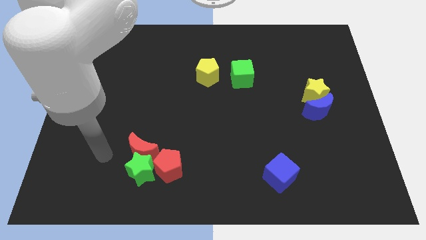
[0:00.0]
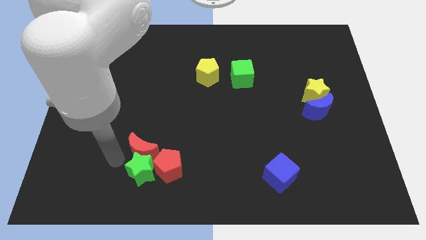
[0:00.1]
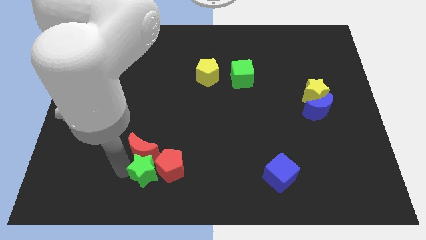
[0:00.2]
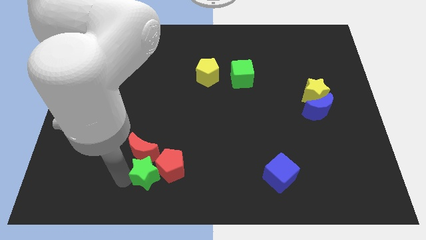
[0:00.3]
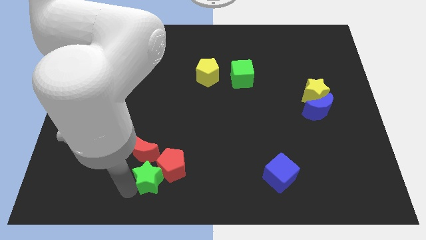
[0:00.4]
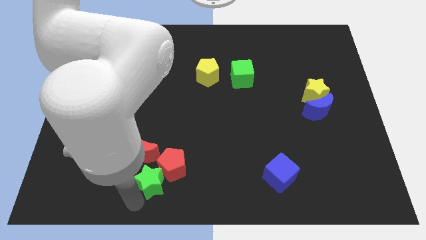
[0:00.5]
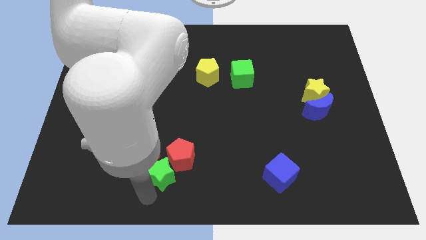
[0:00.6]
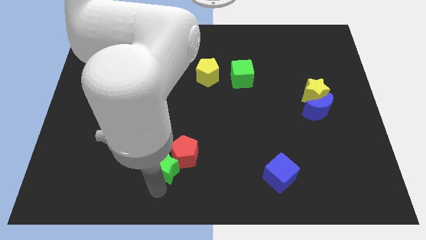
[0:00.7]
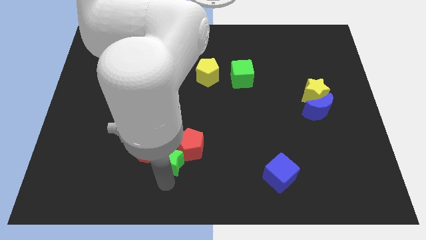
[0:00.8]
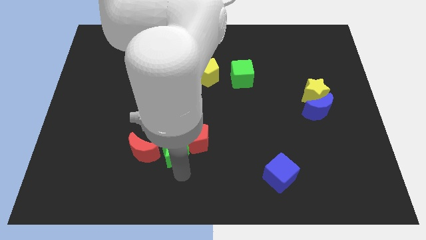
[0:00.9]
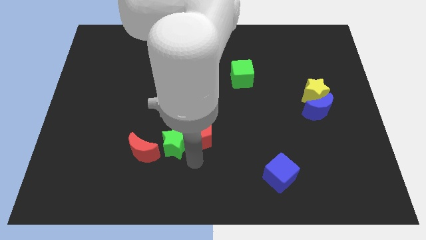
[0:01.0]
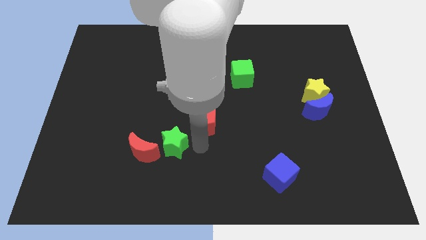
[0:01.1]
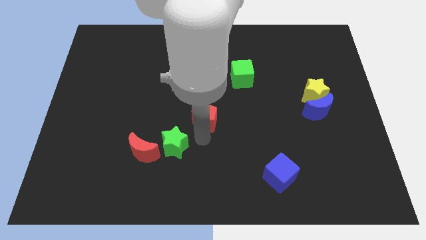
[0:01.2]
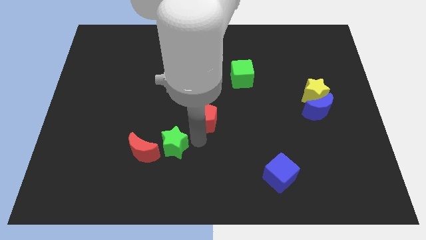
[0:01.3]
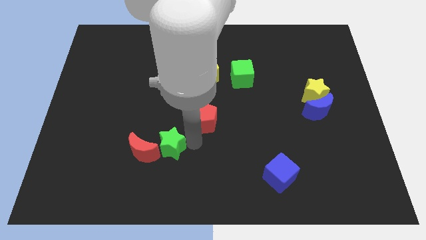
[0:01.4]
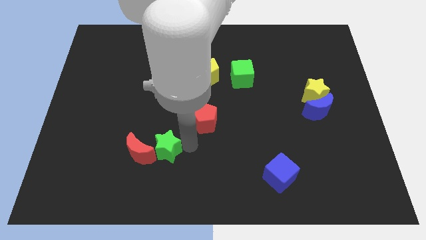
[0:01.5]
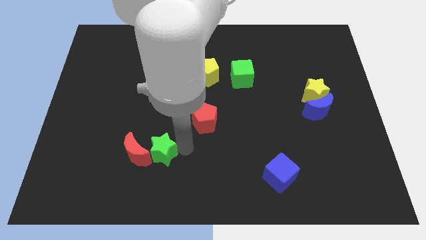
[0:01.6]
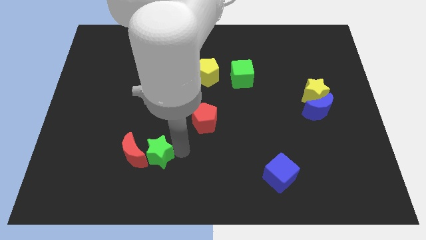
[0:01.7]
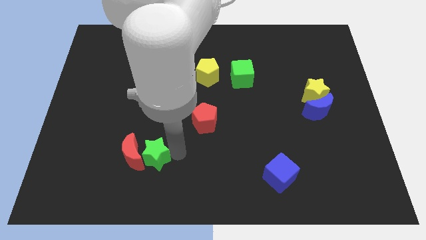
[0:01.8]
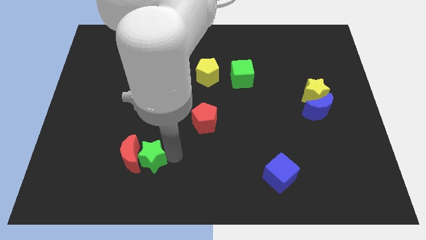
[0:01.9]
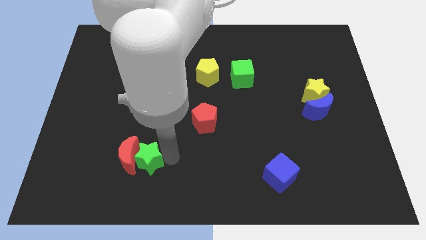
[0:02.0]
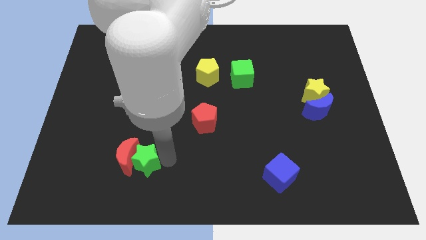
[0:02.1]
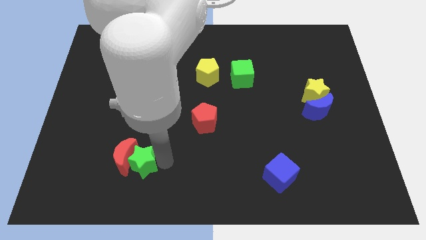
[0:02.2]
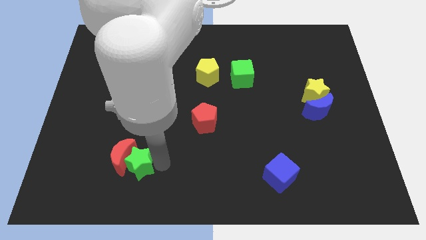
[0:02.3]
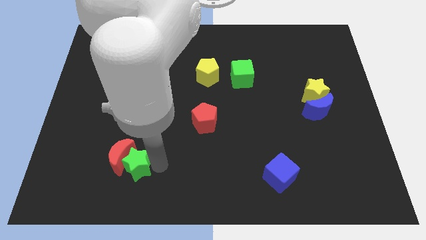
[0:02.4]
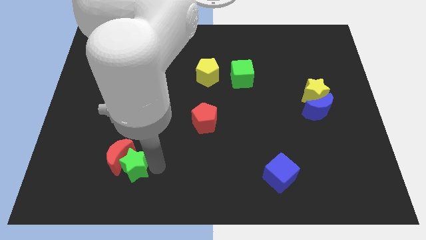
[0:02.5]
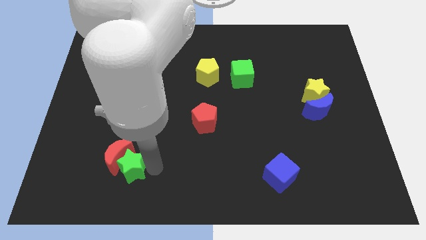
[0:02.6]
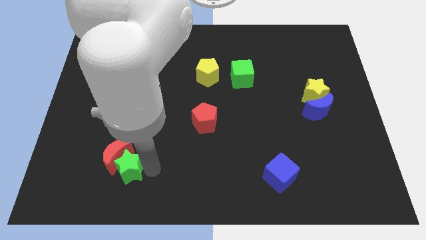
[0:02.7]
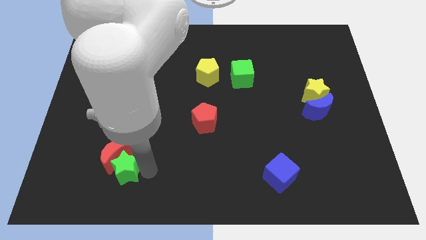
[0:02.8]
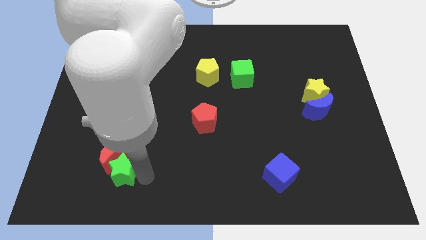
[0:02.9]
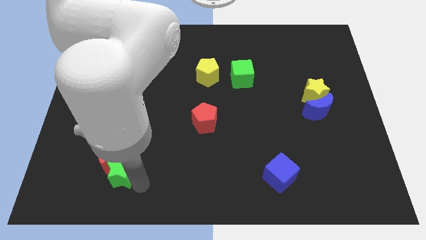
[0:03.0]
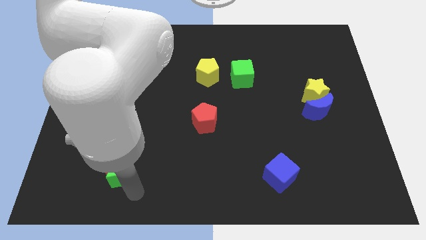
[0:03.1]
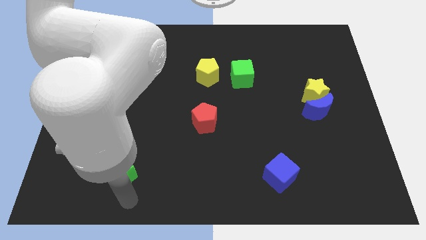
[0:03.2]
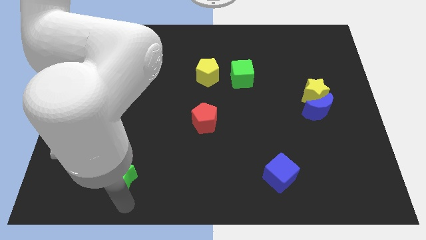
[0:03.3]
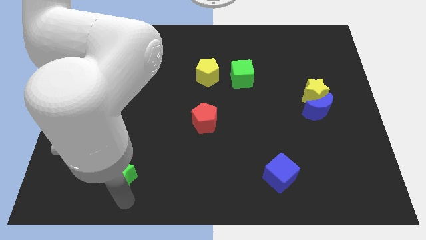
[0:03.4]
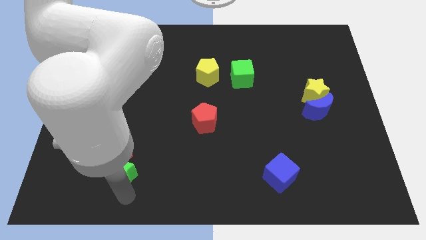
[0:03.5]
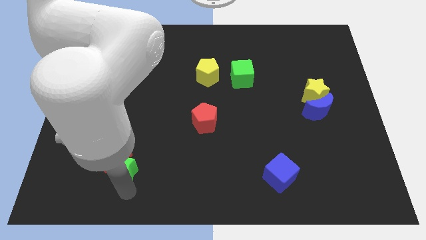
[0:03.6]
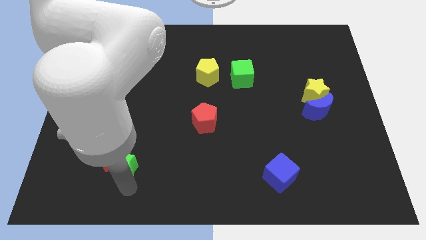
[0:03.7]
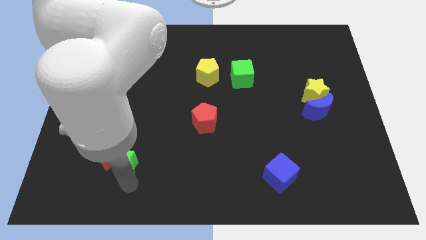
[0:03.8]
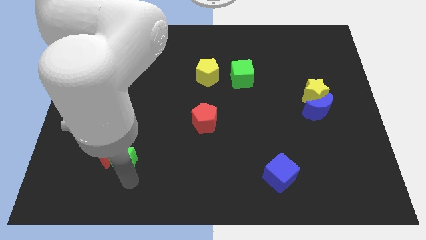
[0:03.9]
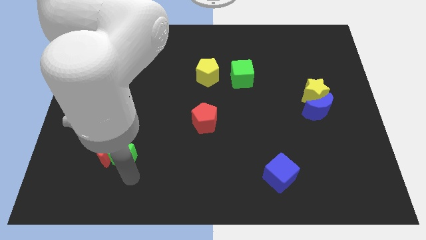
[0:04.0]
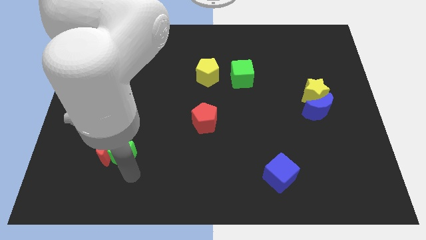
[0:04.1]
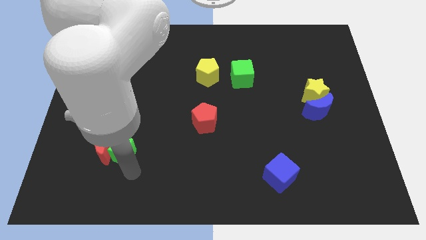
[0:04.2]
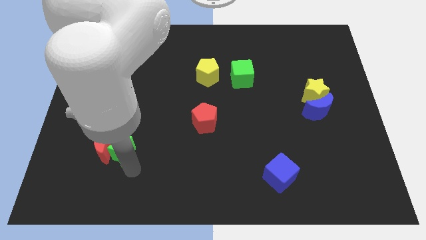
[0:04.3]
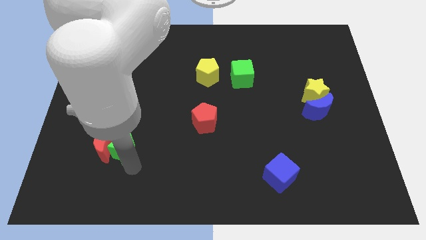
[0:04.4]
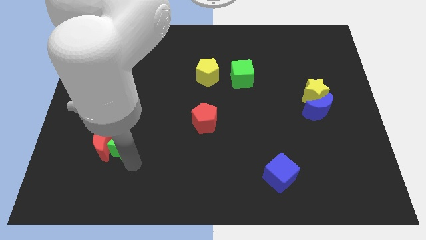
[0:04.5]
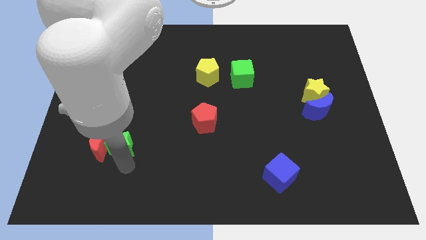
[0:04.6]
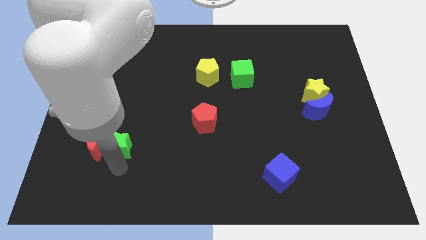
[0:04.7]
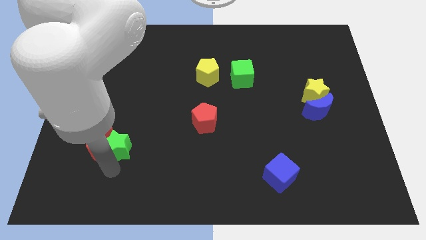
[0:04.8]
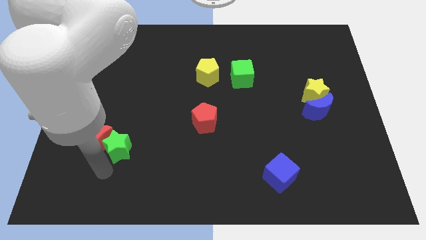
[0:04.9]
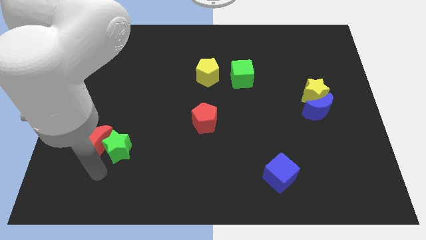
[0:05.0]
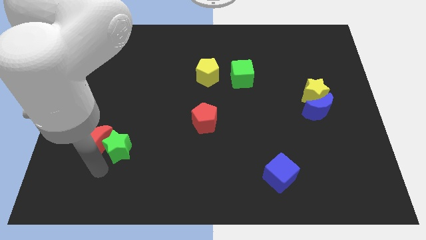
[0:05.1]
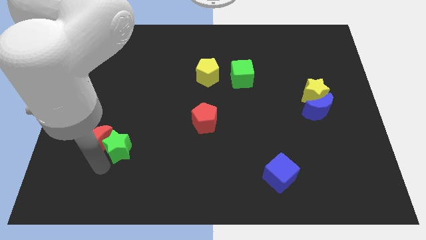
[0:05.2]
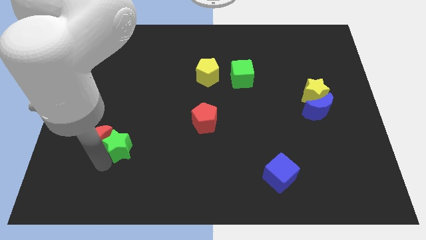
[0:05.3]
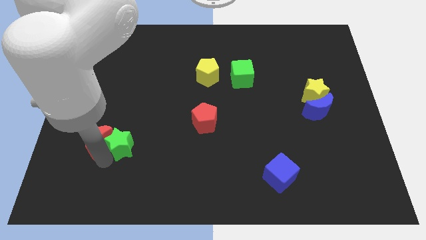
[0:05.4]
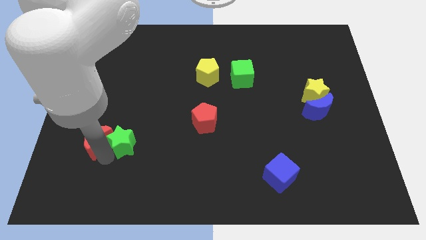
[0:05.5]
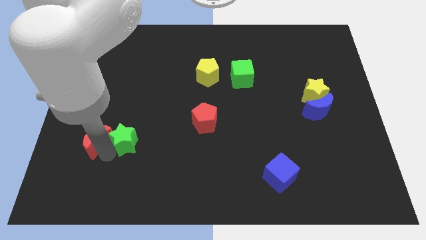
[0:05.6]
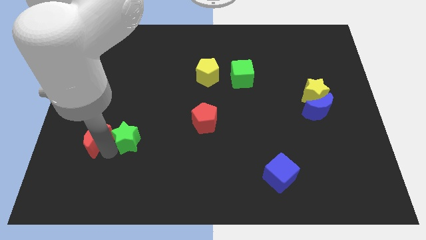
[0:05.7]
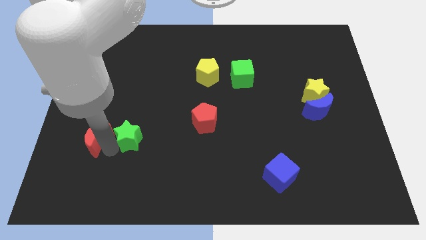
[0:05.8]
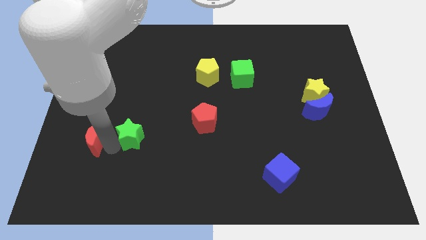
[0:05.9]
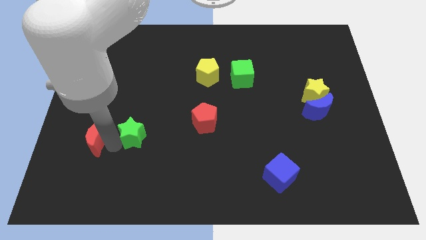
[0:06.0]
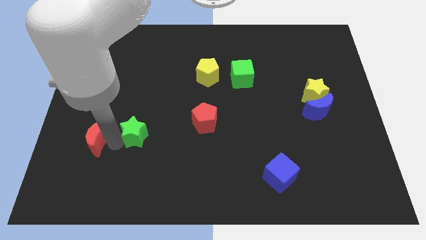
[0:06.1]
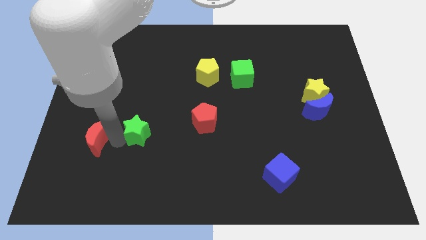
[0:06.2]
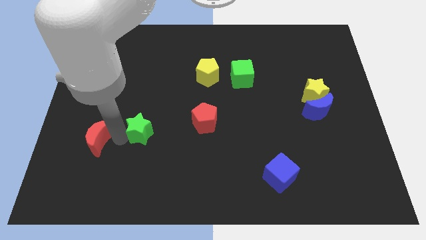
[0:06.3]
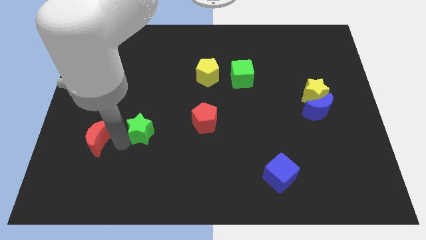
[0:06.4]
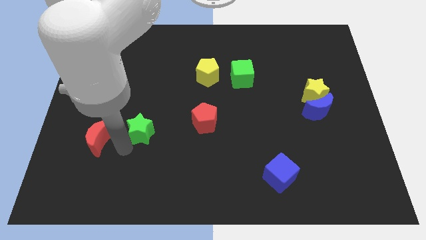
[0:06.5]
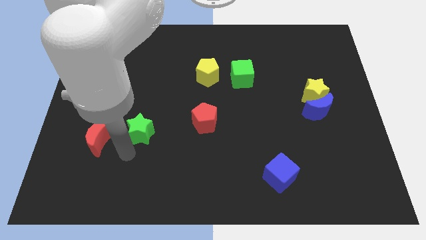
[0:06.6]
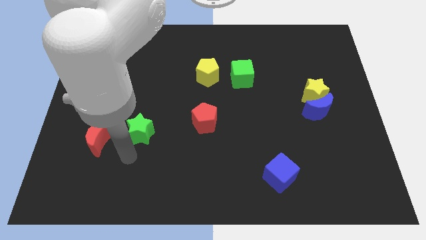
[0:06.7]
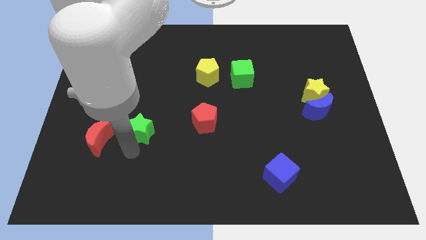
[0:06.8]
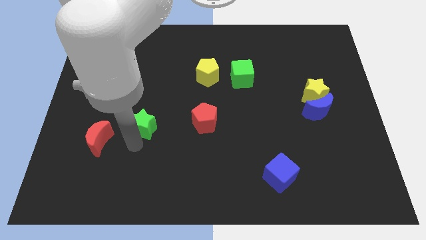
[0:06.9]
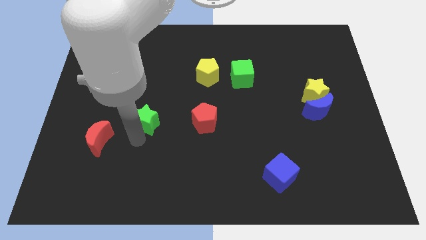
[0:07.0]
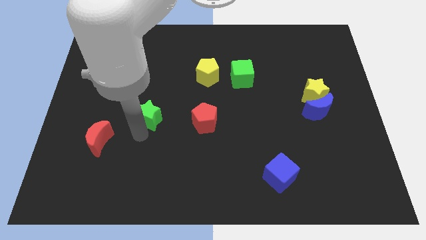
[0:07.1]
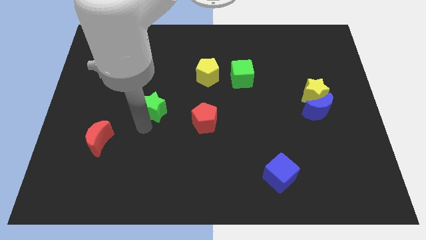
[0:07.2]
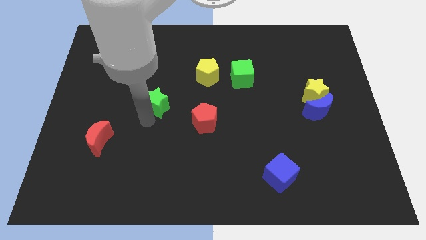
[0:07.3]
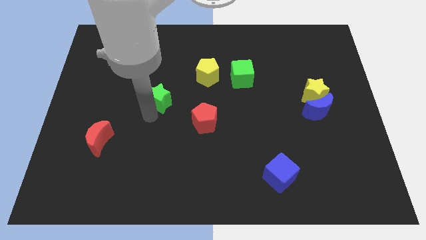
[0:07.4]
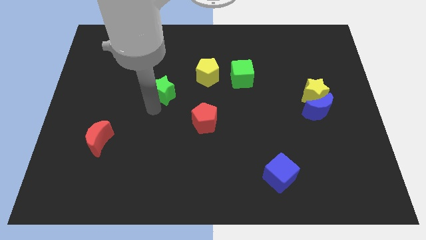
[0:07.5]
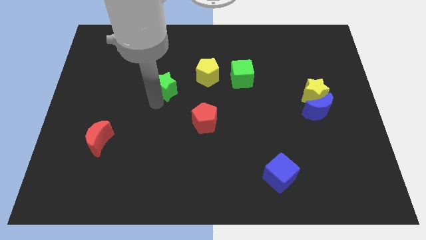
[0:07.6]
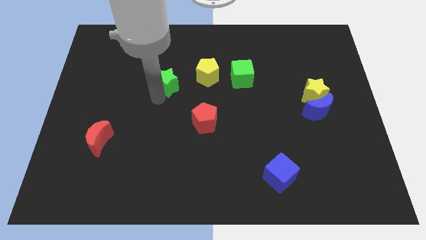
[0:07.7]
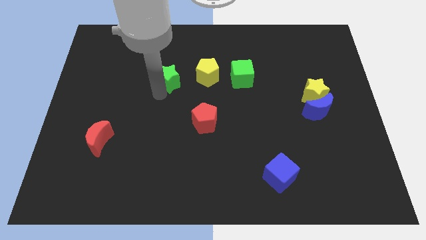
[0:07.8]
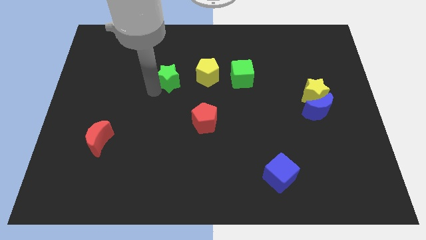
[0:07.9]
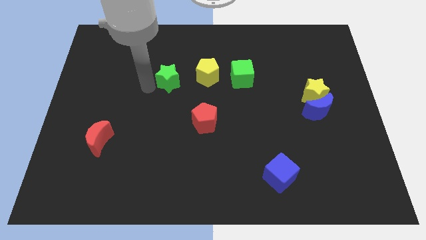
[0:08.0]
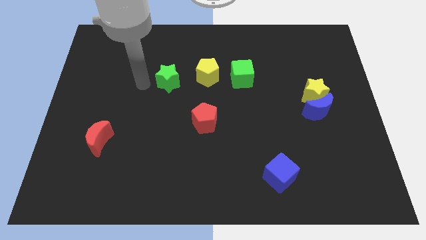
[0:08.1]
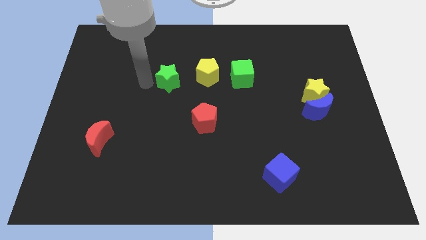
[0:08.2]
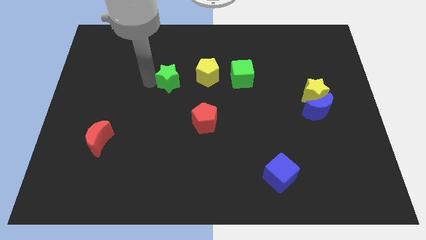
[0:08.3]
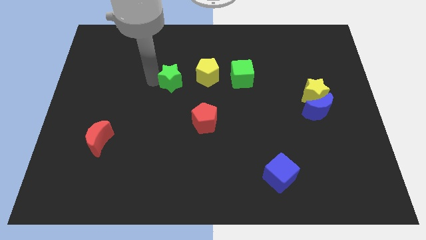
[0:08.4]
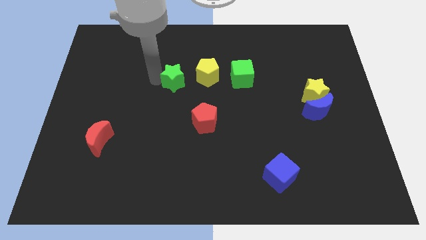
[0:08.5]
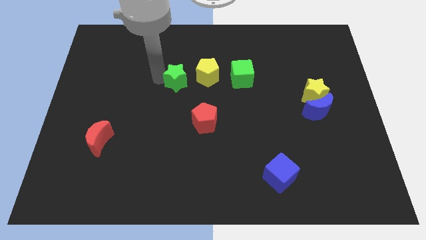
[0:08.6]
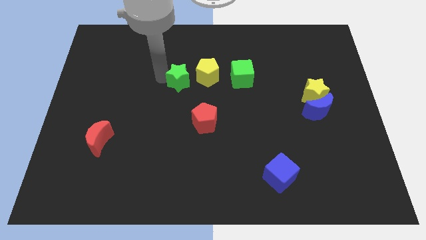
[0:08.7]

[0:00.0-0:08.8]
push the green star to the left side of the green cube
